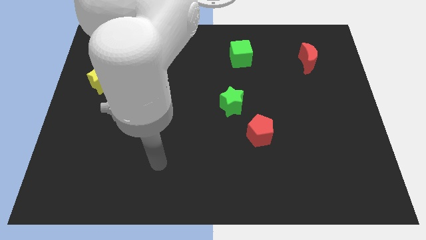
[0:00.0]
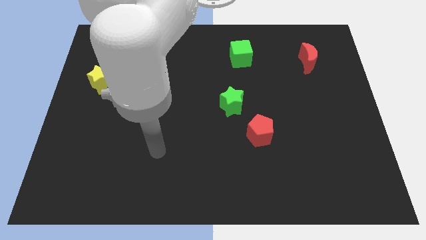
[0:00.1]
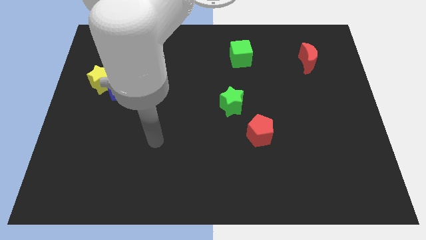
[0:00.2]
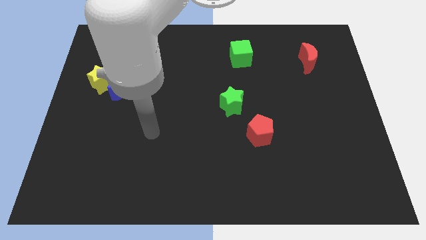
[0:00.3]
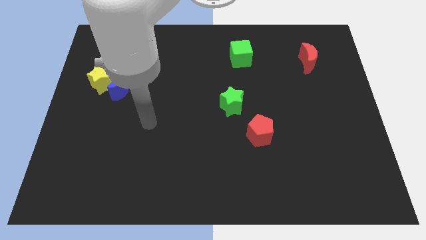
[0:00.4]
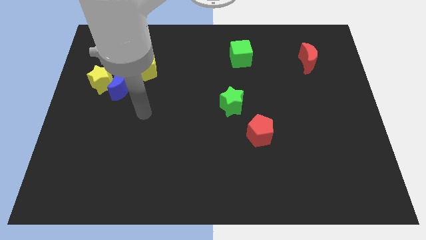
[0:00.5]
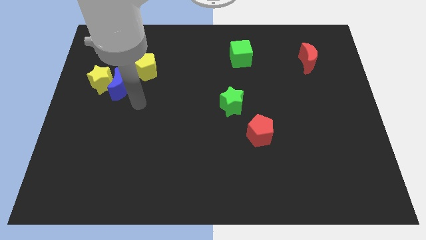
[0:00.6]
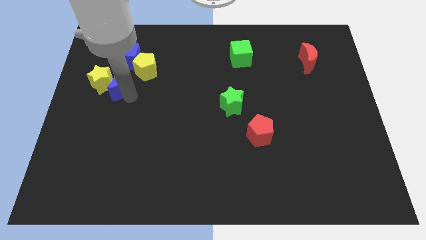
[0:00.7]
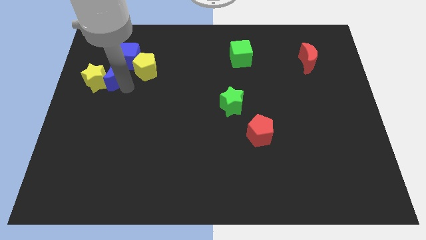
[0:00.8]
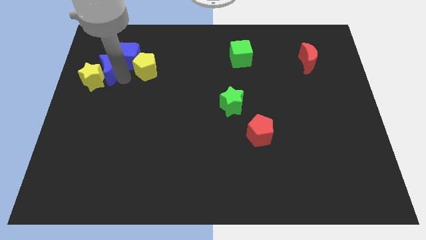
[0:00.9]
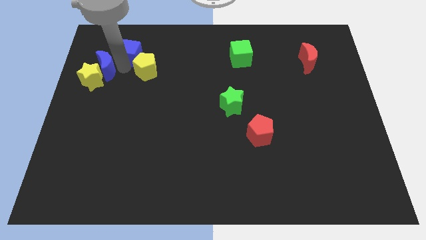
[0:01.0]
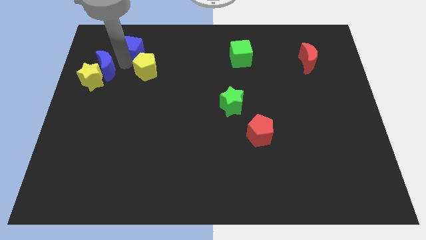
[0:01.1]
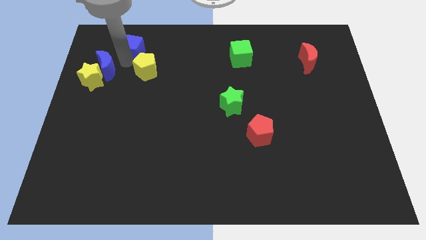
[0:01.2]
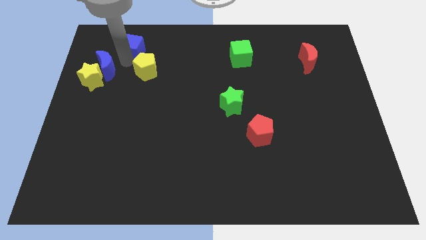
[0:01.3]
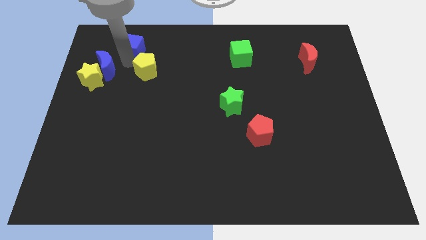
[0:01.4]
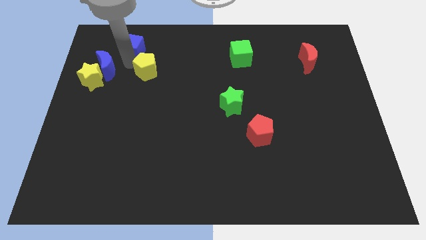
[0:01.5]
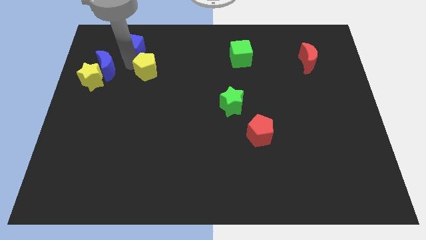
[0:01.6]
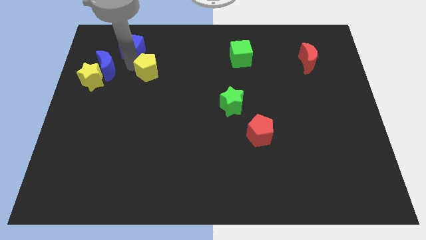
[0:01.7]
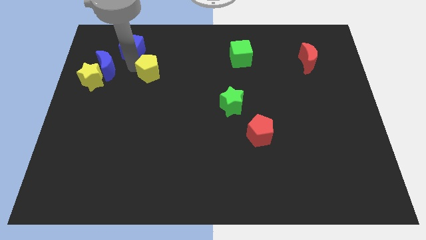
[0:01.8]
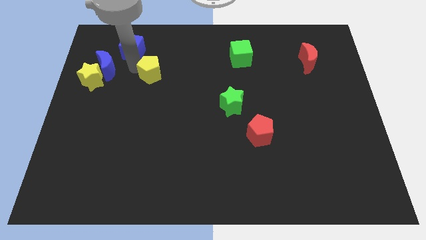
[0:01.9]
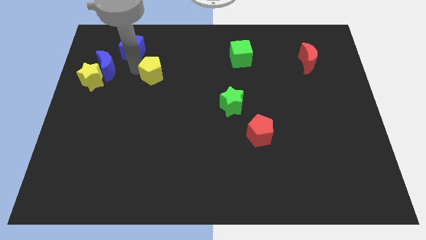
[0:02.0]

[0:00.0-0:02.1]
separate the yellow pentagon from the blue cube and blue moon

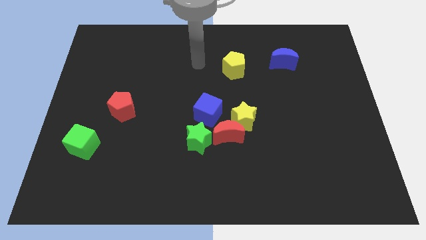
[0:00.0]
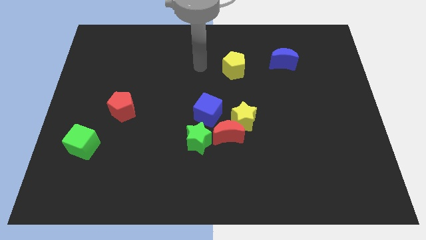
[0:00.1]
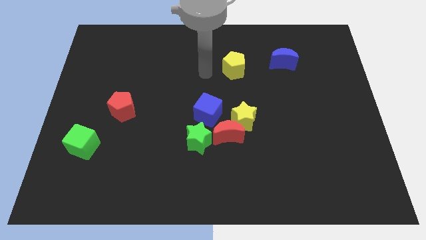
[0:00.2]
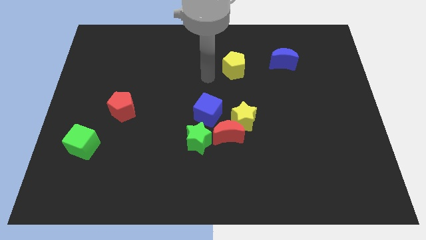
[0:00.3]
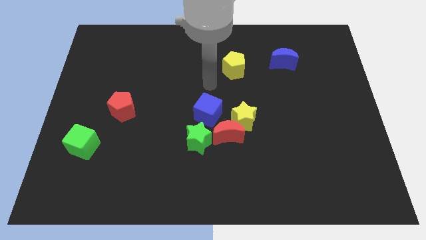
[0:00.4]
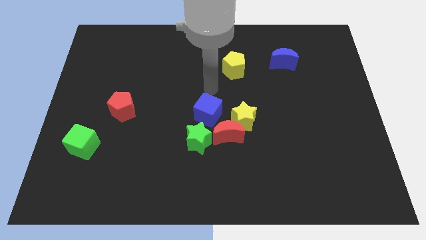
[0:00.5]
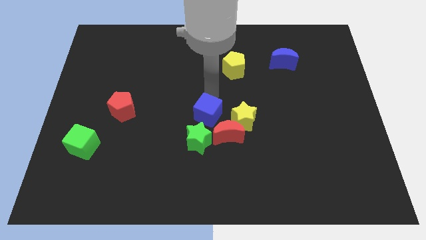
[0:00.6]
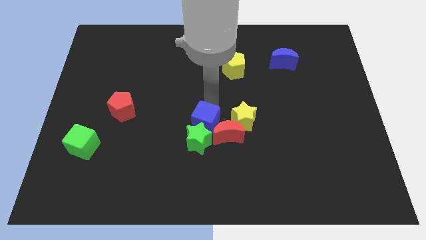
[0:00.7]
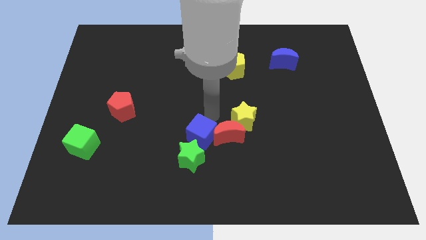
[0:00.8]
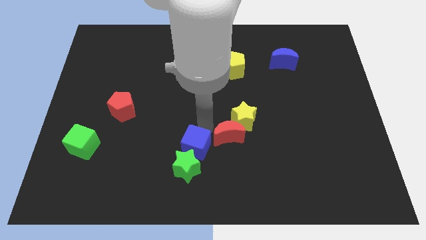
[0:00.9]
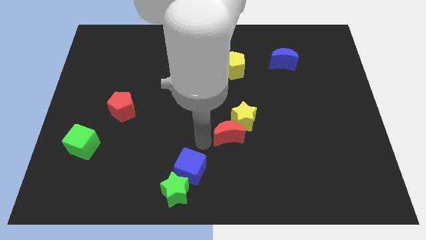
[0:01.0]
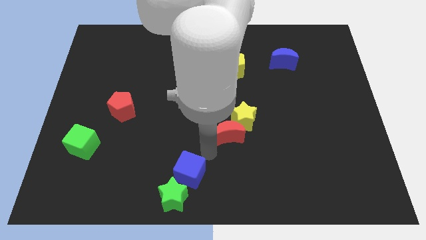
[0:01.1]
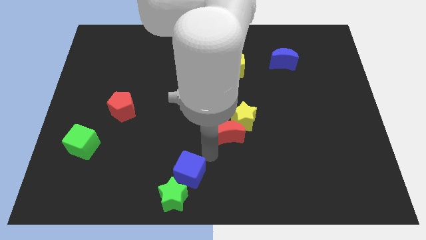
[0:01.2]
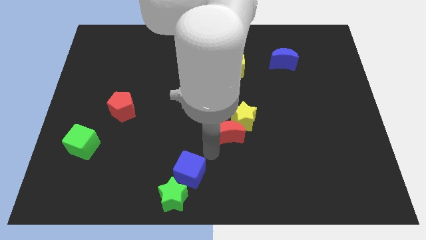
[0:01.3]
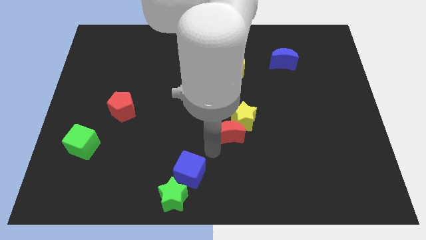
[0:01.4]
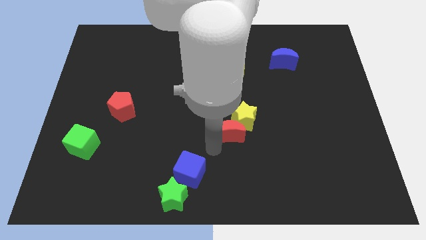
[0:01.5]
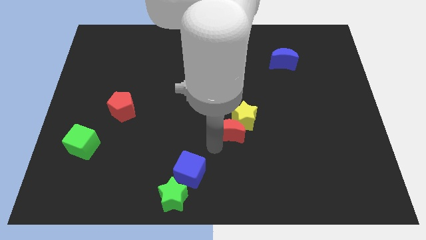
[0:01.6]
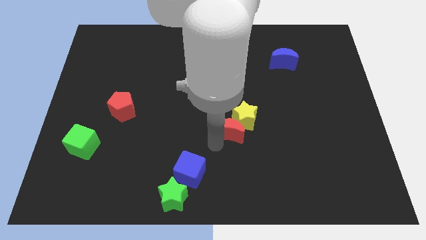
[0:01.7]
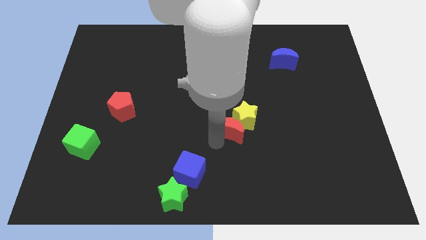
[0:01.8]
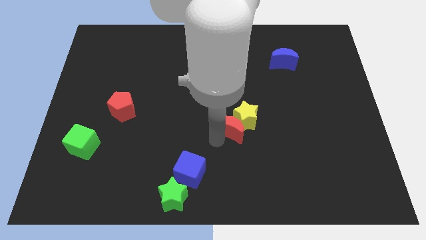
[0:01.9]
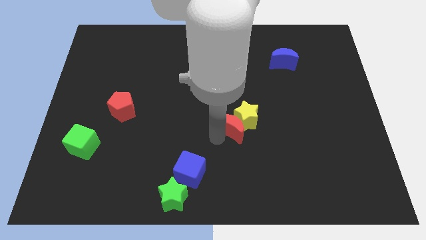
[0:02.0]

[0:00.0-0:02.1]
separate the red moon from the yellow star, green star, and blue cube

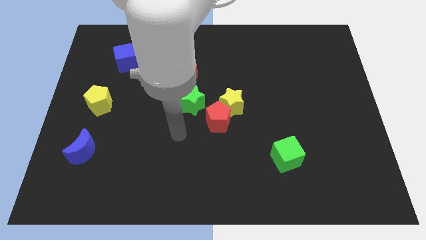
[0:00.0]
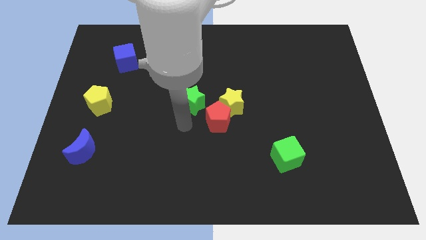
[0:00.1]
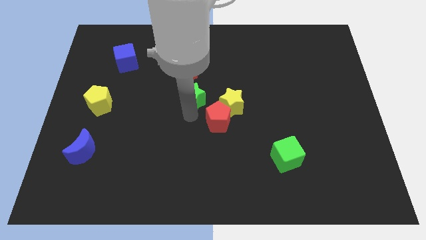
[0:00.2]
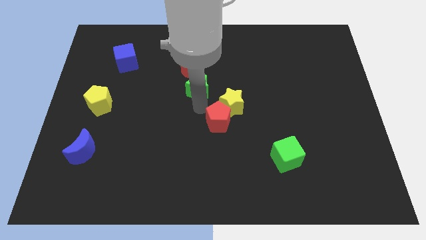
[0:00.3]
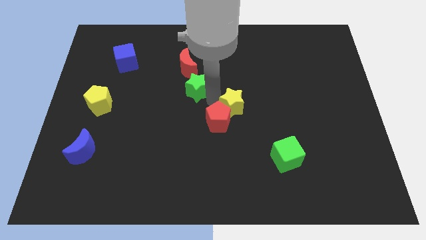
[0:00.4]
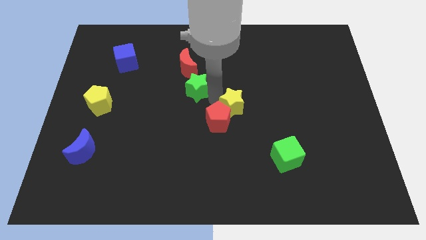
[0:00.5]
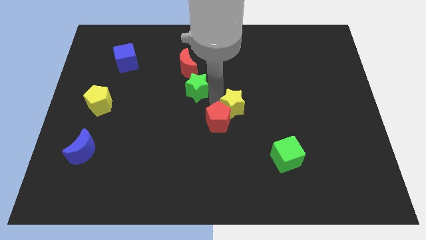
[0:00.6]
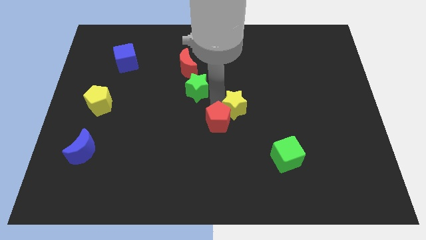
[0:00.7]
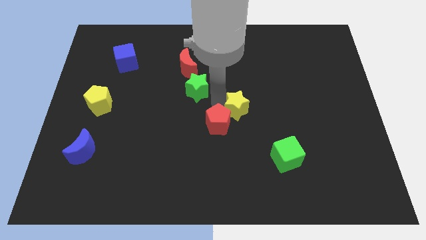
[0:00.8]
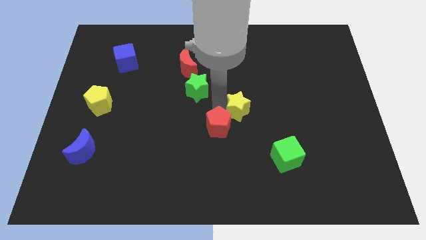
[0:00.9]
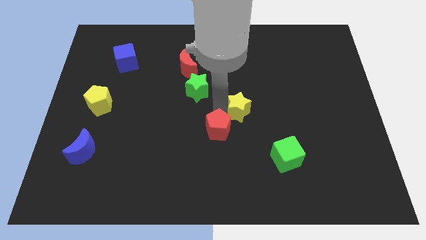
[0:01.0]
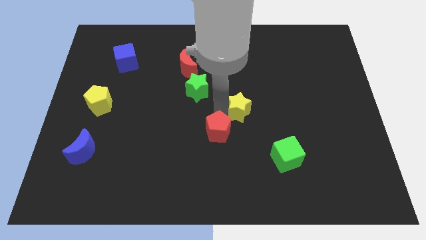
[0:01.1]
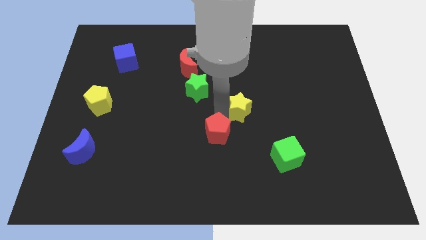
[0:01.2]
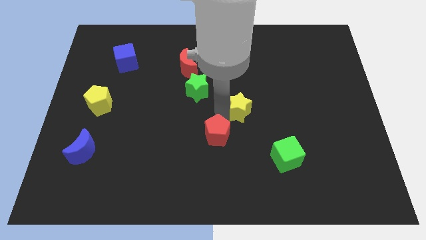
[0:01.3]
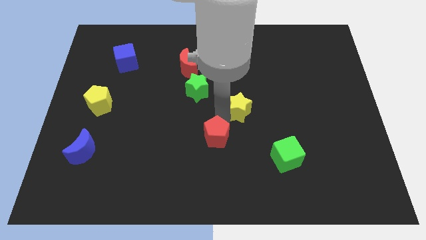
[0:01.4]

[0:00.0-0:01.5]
separate the red pentagon from the yellow star and green star

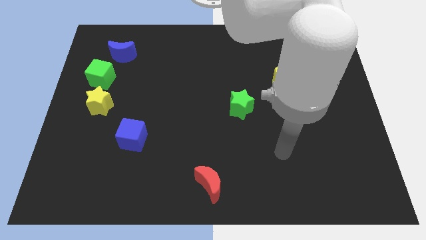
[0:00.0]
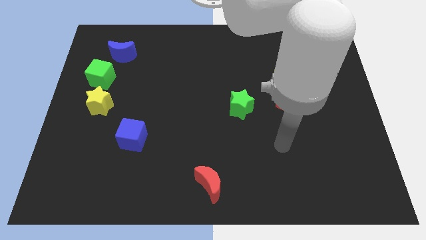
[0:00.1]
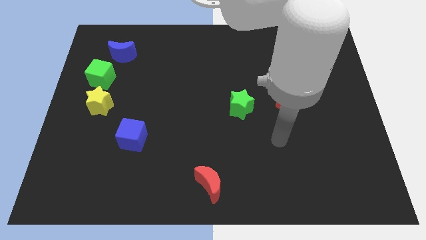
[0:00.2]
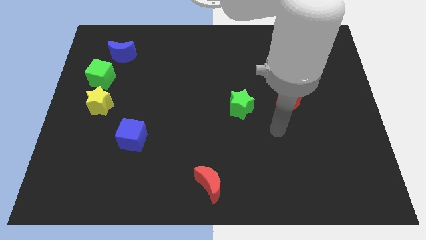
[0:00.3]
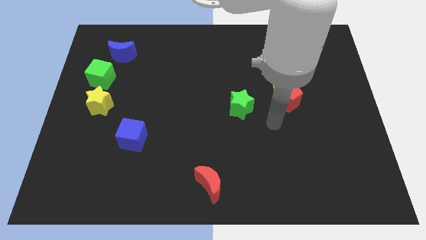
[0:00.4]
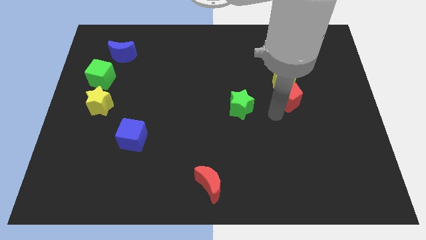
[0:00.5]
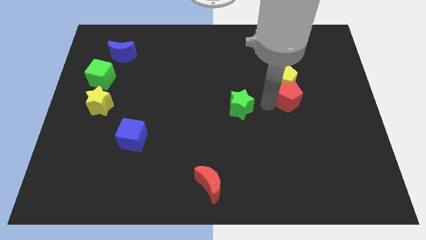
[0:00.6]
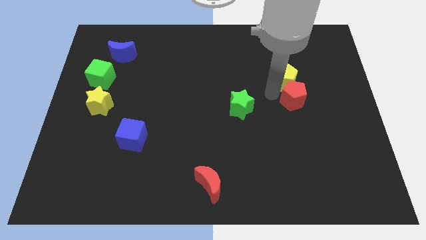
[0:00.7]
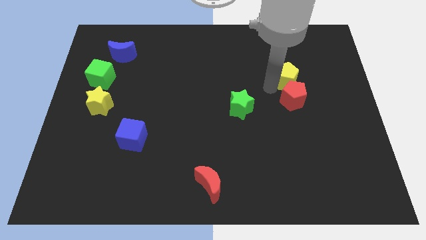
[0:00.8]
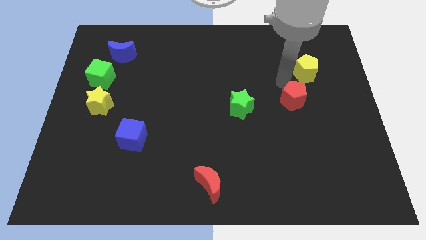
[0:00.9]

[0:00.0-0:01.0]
move the red pentagon away from the yellow pentagon

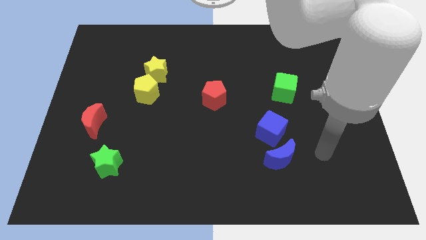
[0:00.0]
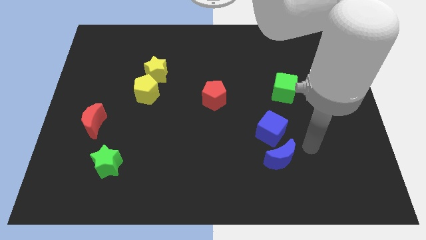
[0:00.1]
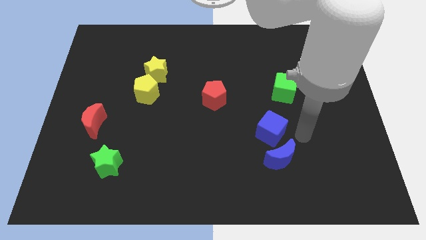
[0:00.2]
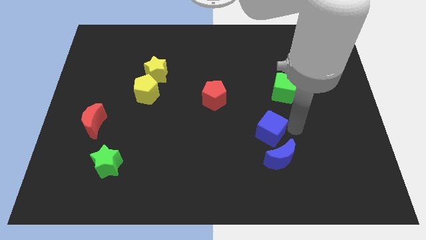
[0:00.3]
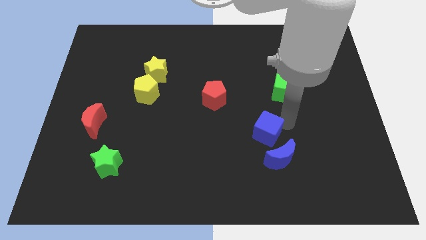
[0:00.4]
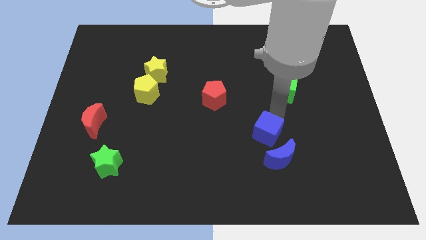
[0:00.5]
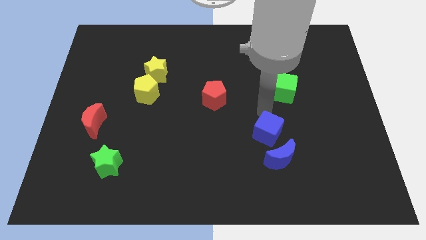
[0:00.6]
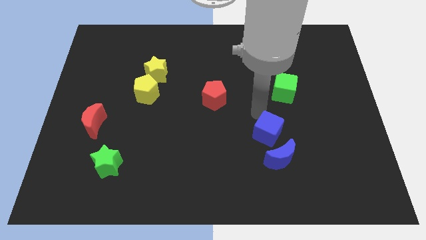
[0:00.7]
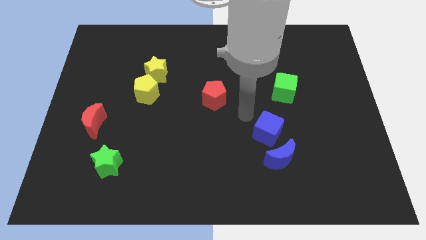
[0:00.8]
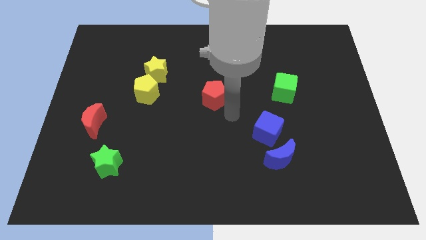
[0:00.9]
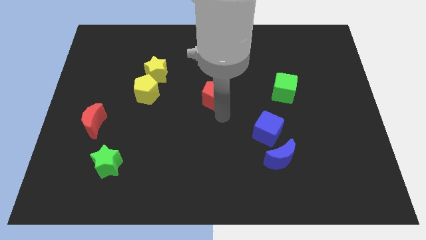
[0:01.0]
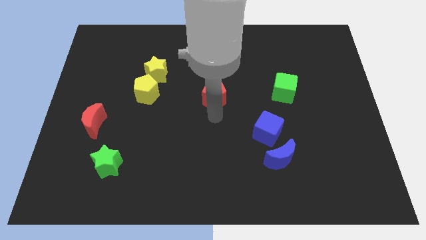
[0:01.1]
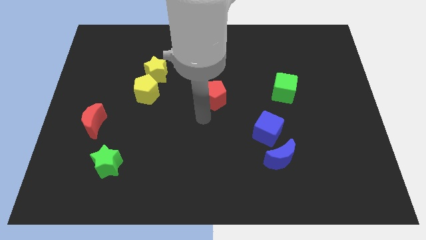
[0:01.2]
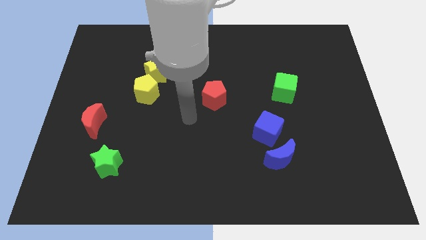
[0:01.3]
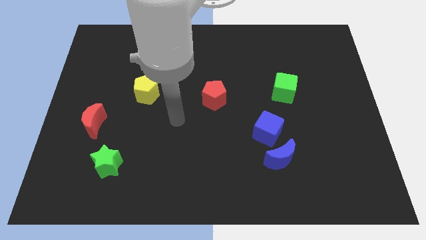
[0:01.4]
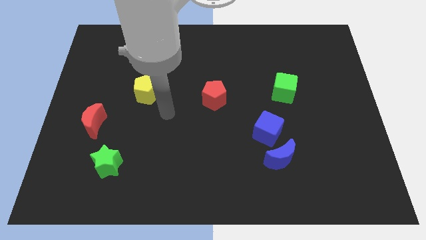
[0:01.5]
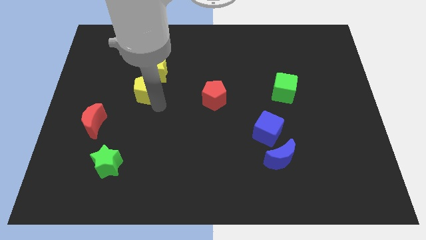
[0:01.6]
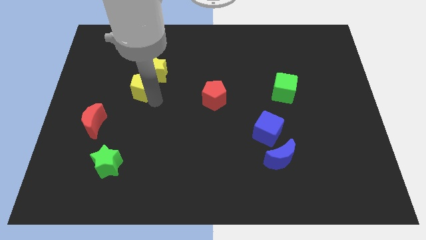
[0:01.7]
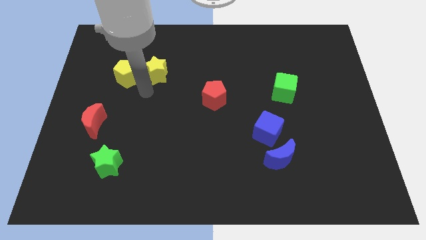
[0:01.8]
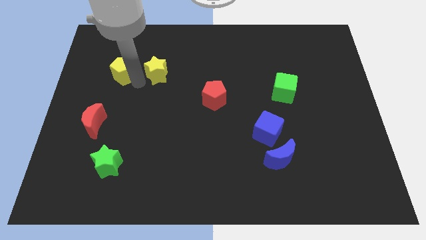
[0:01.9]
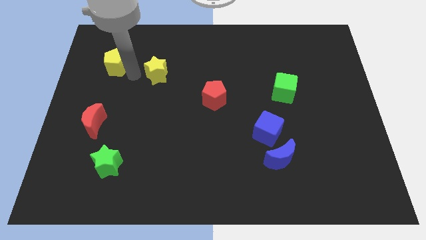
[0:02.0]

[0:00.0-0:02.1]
pull the yellow star apart from the yellow pentagon

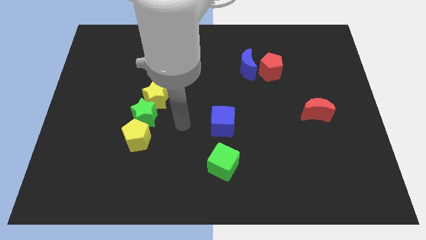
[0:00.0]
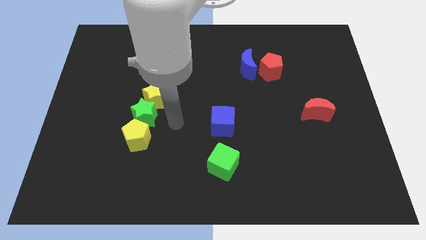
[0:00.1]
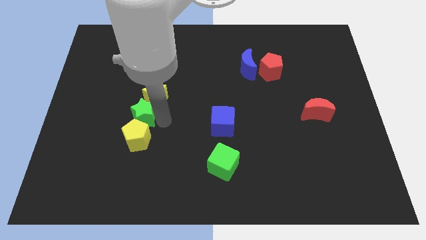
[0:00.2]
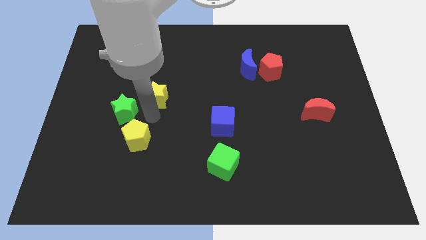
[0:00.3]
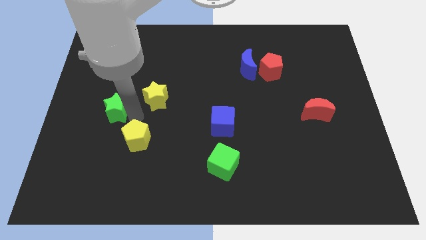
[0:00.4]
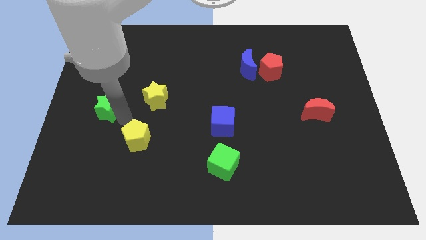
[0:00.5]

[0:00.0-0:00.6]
move the yellow pentagon away from the green star
